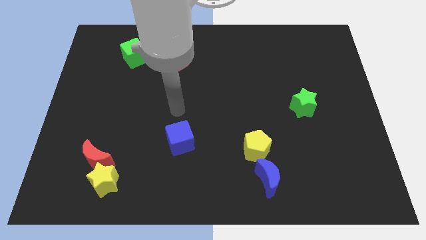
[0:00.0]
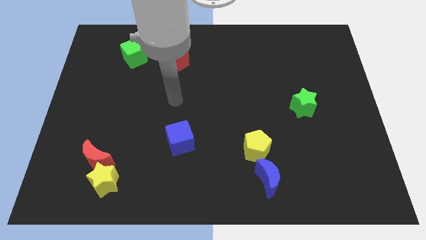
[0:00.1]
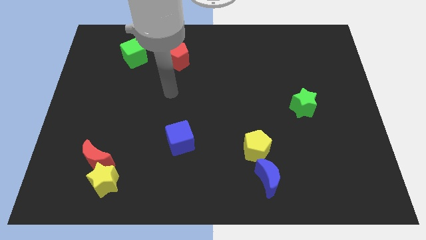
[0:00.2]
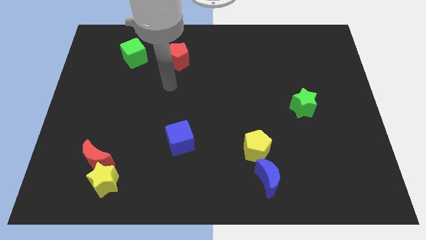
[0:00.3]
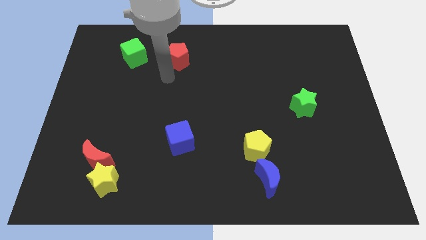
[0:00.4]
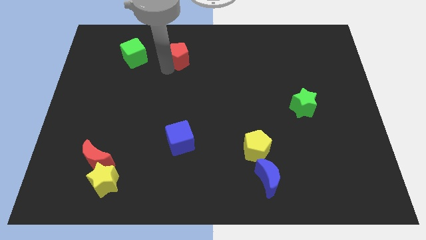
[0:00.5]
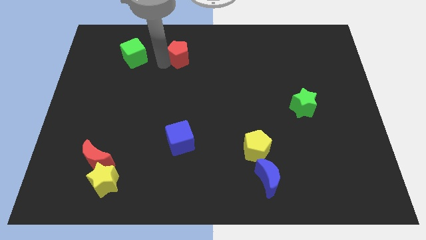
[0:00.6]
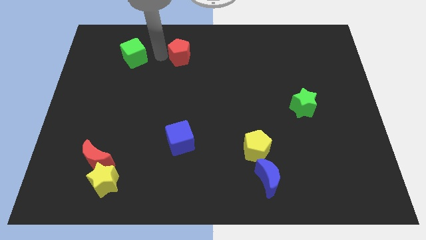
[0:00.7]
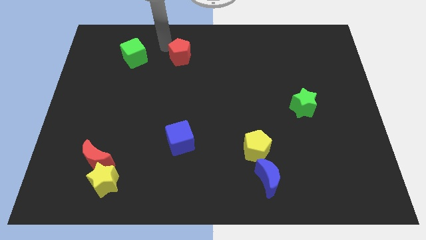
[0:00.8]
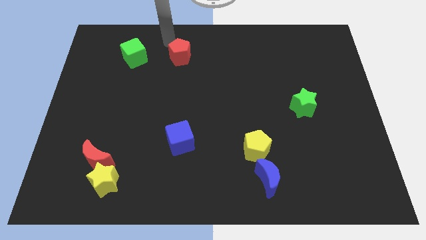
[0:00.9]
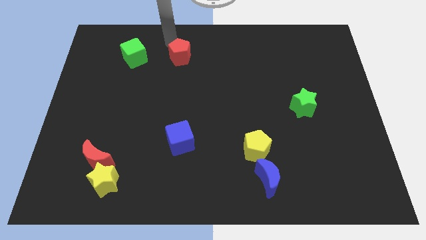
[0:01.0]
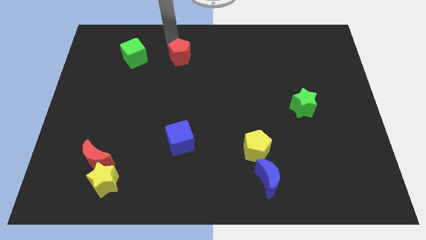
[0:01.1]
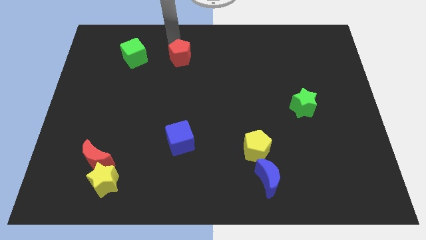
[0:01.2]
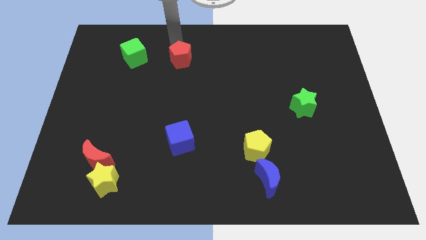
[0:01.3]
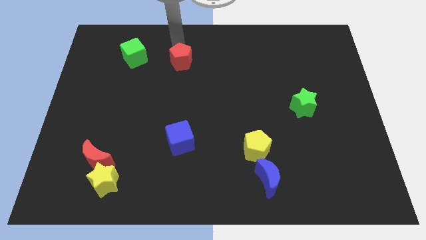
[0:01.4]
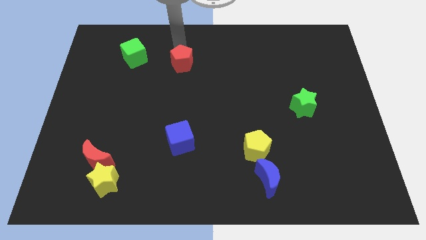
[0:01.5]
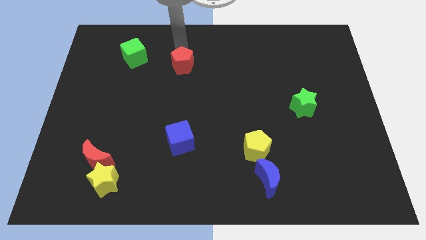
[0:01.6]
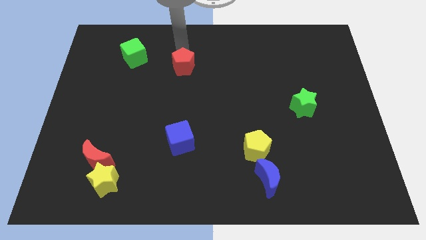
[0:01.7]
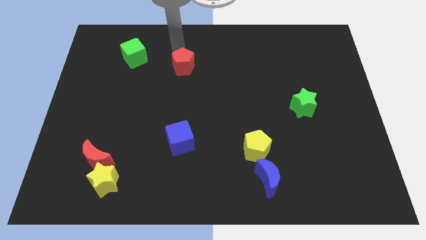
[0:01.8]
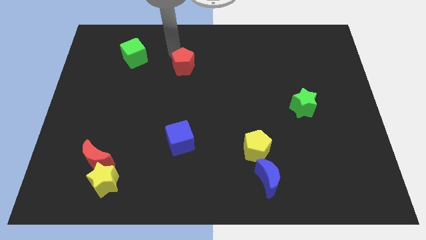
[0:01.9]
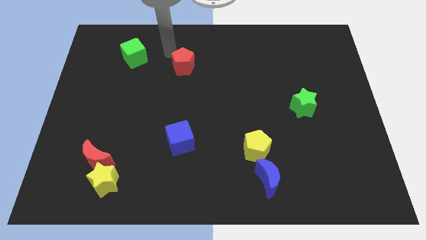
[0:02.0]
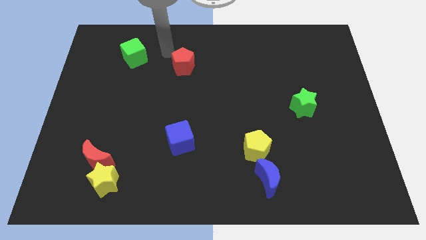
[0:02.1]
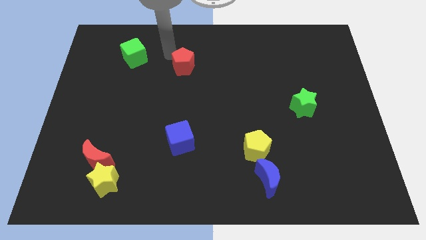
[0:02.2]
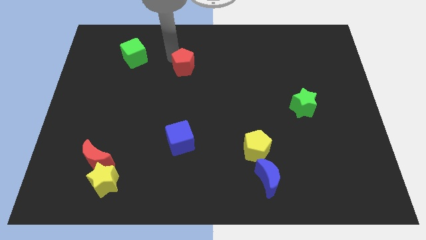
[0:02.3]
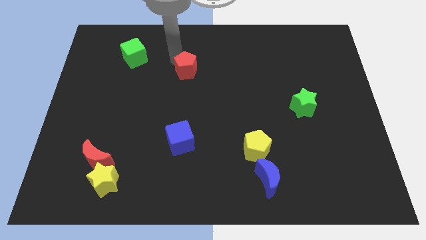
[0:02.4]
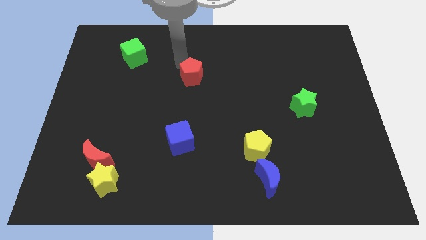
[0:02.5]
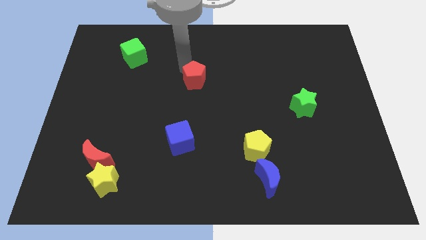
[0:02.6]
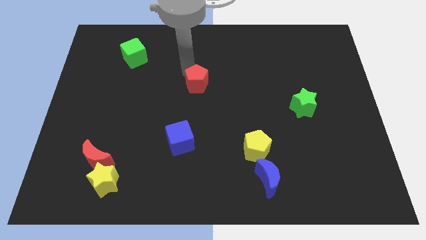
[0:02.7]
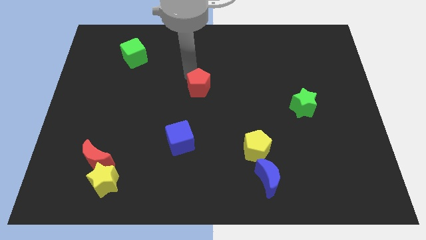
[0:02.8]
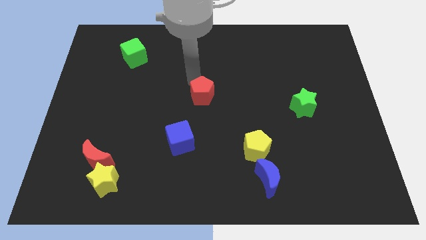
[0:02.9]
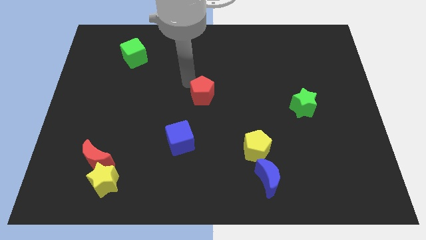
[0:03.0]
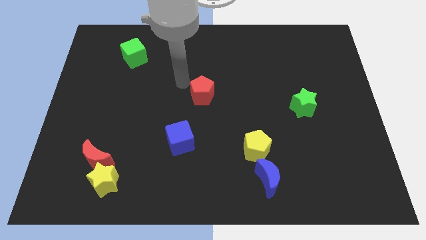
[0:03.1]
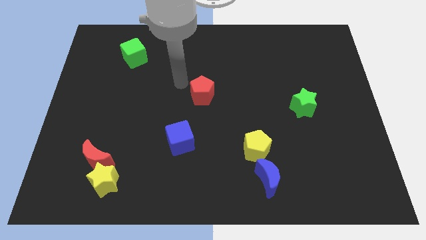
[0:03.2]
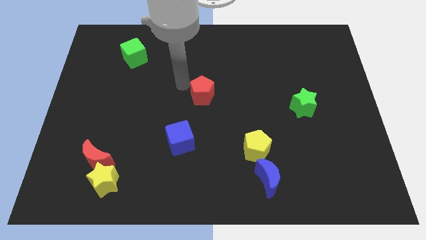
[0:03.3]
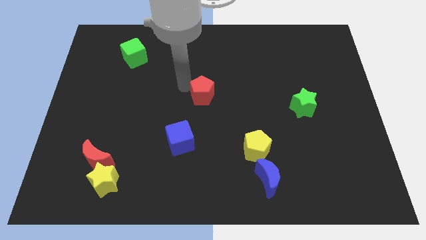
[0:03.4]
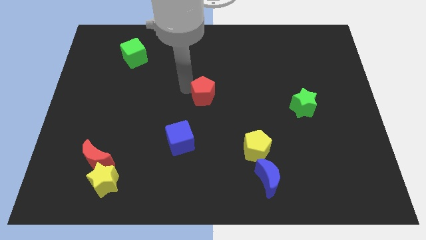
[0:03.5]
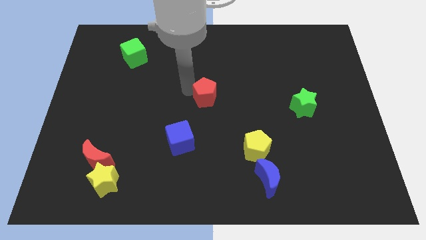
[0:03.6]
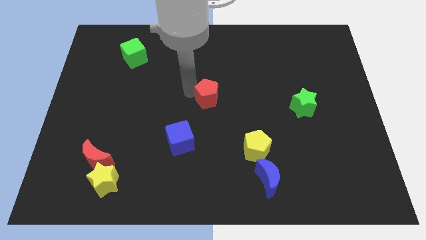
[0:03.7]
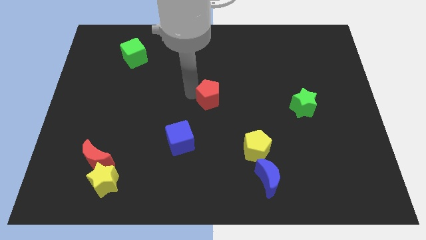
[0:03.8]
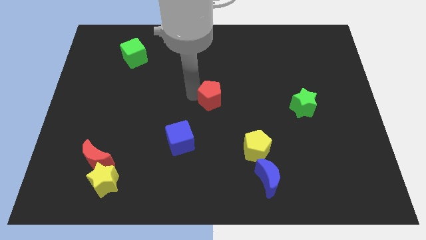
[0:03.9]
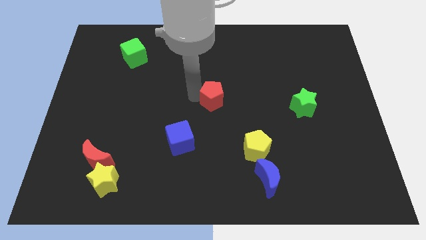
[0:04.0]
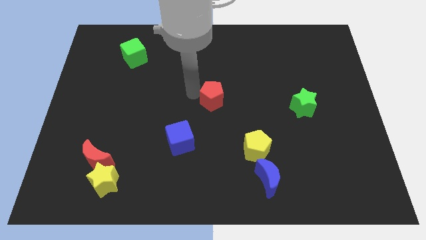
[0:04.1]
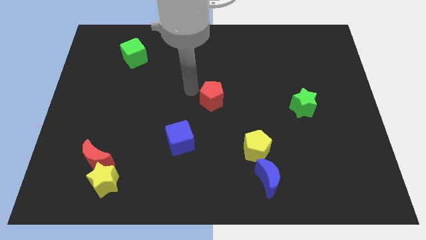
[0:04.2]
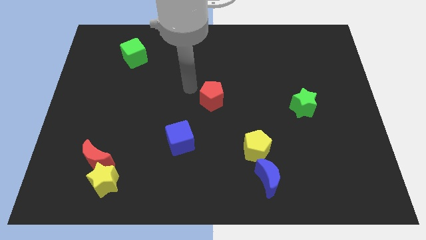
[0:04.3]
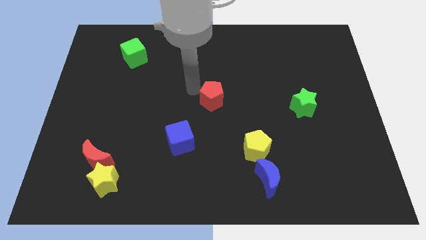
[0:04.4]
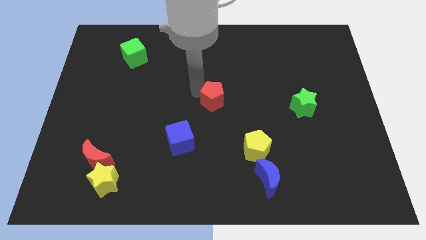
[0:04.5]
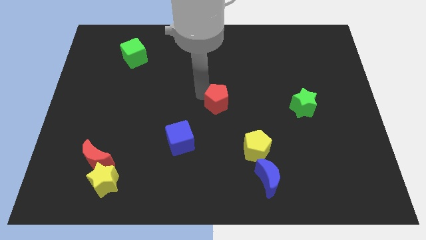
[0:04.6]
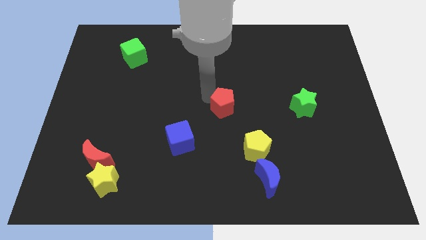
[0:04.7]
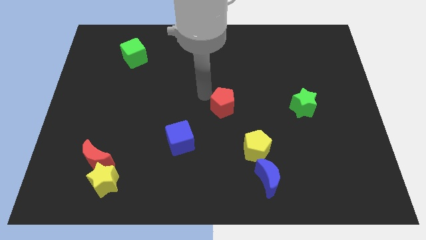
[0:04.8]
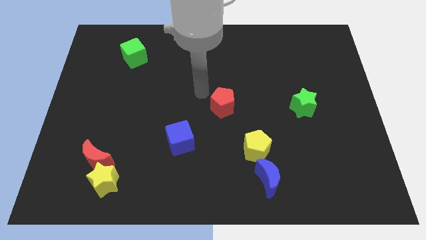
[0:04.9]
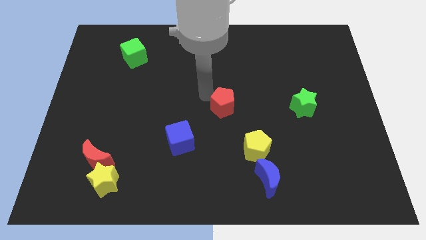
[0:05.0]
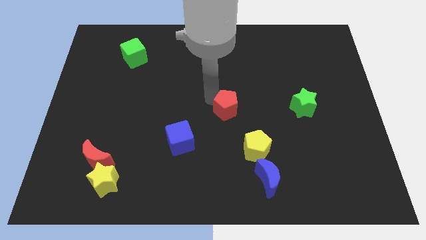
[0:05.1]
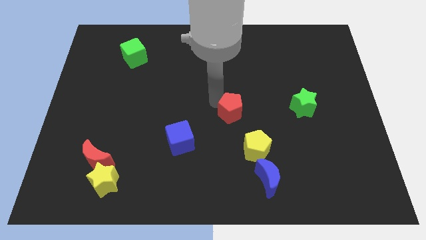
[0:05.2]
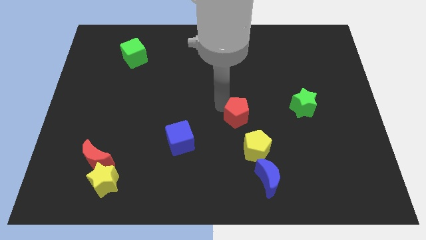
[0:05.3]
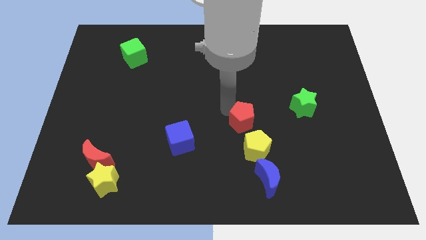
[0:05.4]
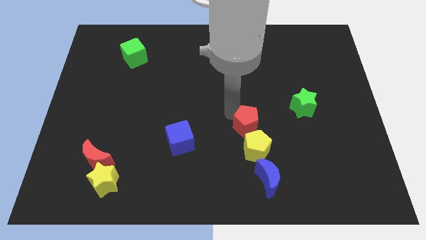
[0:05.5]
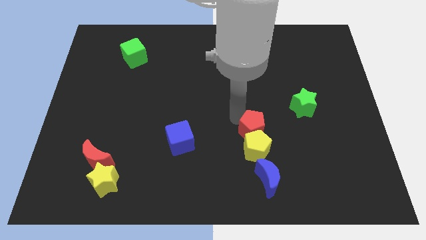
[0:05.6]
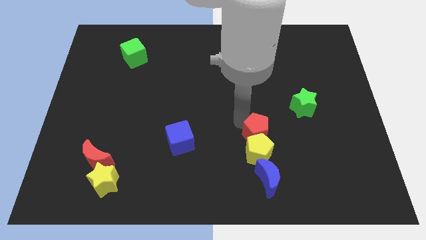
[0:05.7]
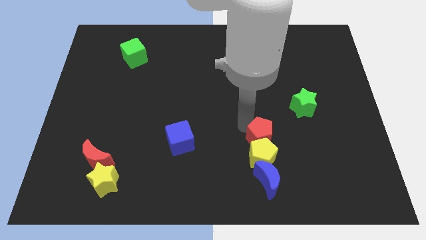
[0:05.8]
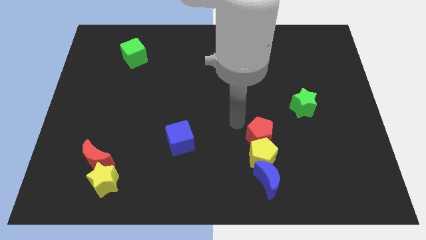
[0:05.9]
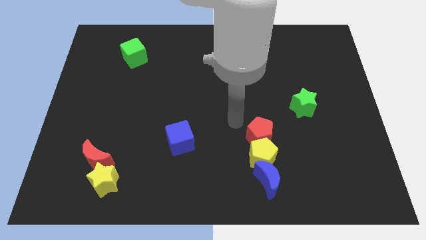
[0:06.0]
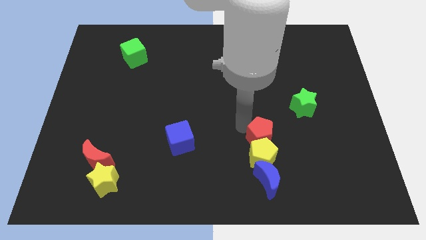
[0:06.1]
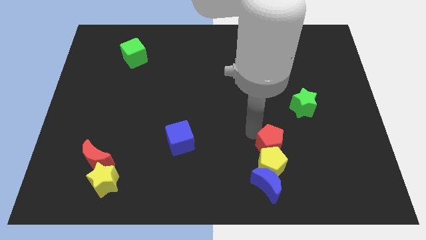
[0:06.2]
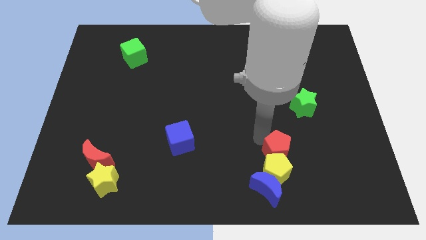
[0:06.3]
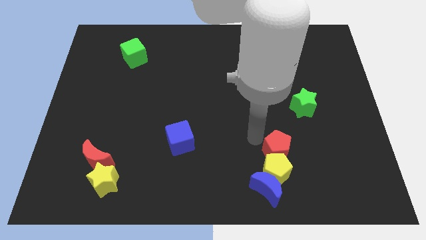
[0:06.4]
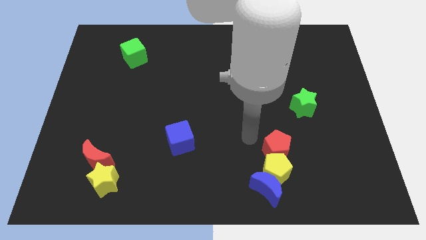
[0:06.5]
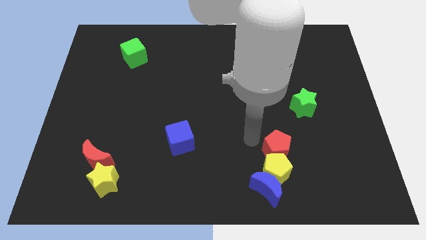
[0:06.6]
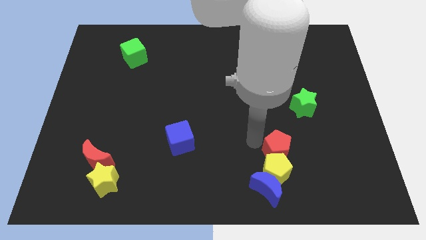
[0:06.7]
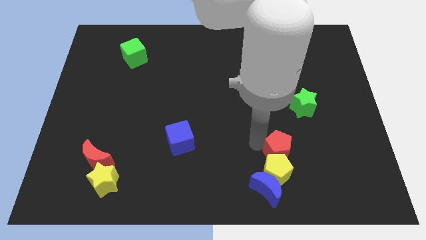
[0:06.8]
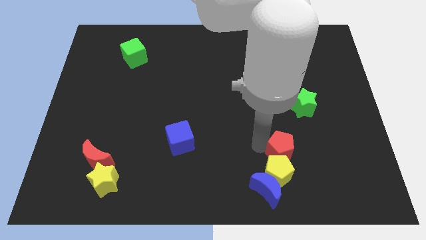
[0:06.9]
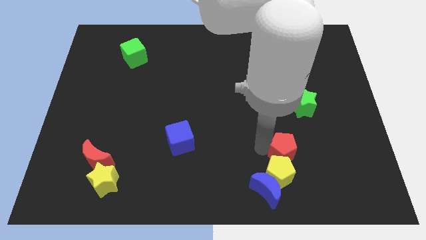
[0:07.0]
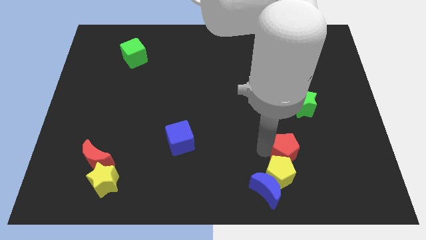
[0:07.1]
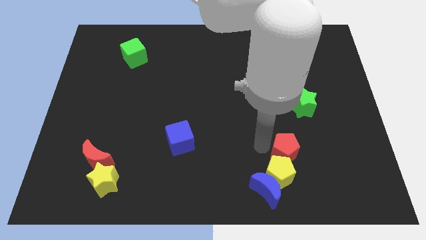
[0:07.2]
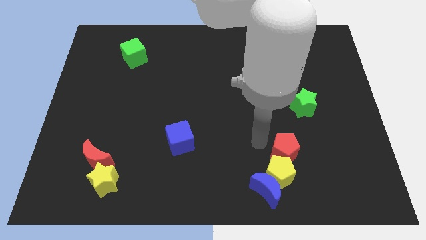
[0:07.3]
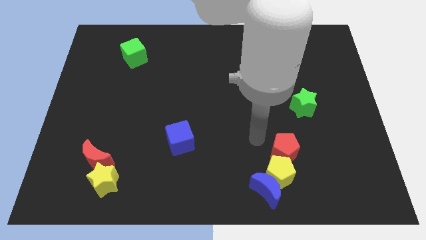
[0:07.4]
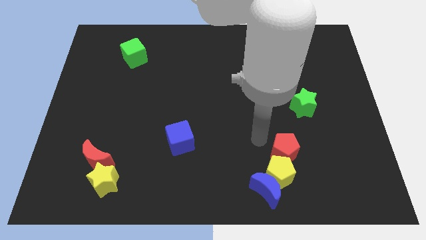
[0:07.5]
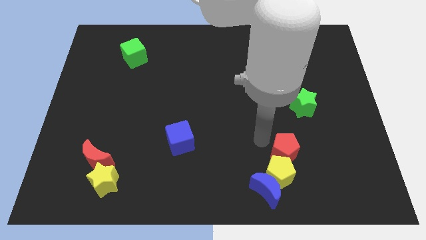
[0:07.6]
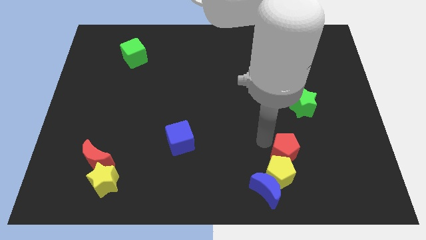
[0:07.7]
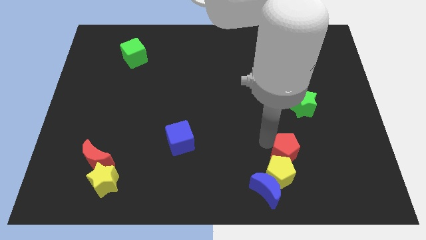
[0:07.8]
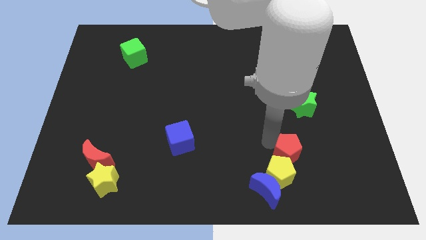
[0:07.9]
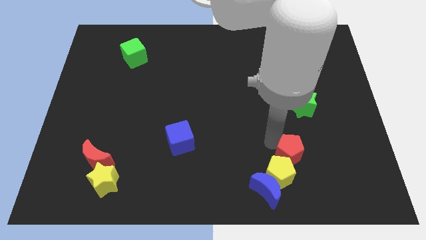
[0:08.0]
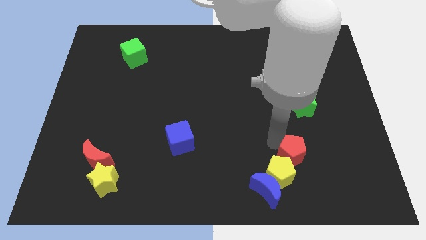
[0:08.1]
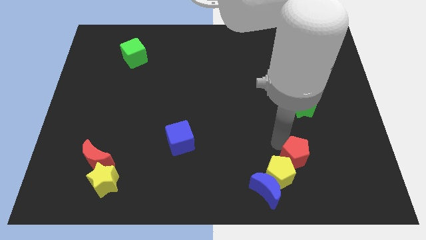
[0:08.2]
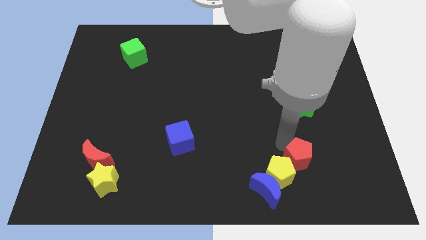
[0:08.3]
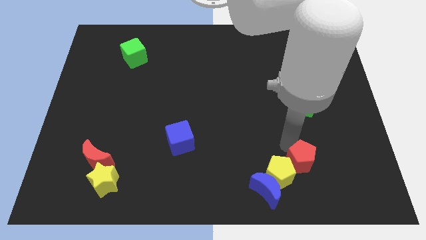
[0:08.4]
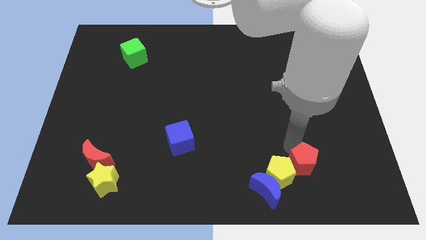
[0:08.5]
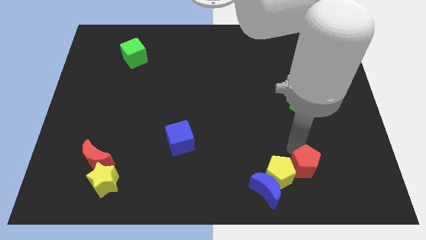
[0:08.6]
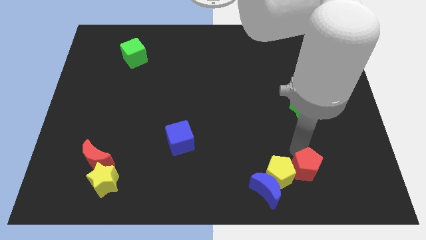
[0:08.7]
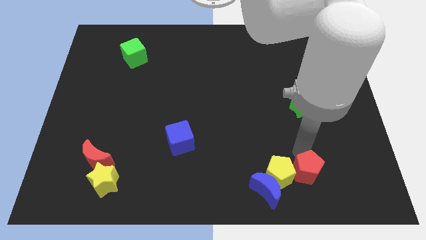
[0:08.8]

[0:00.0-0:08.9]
slide the red pentagon just right of the blue moon
